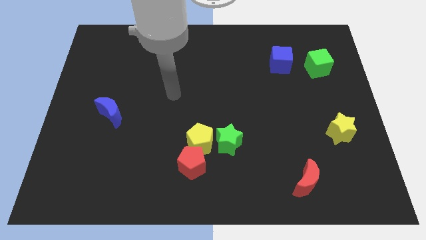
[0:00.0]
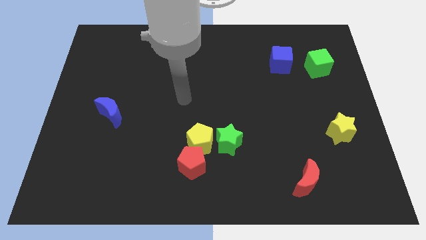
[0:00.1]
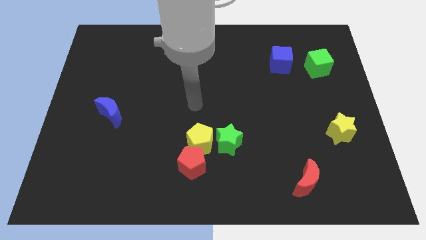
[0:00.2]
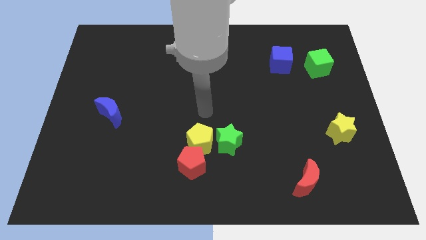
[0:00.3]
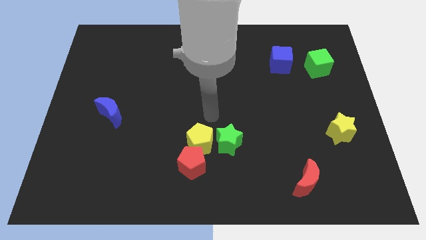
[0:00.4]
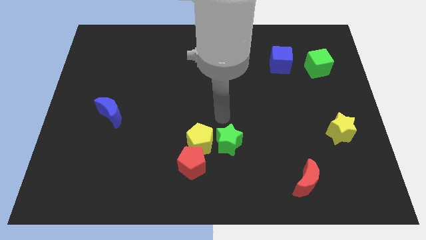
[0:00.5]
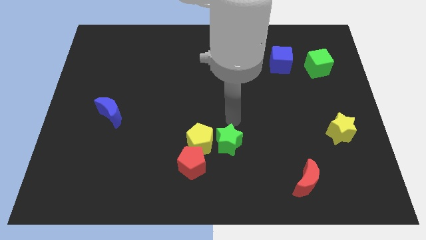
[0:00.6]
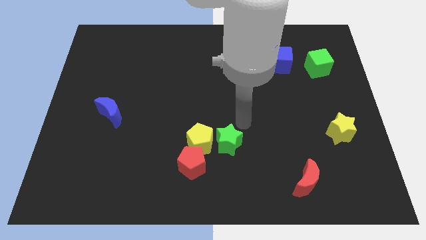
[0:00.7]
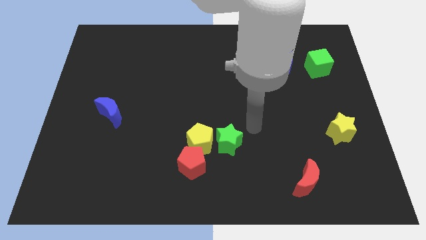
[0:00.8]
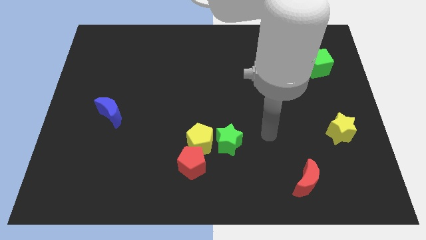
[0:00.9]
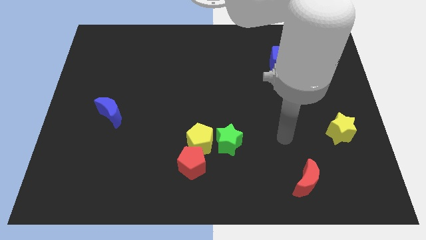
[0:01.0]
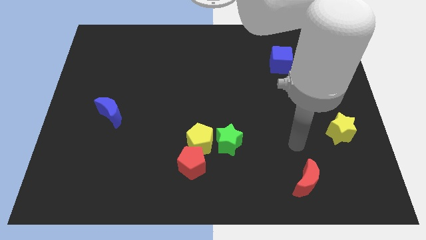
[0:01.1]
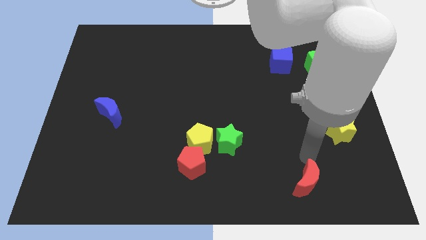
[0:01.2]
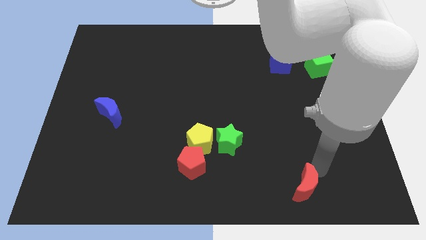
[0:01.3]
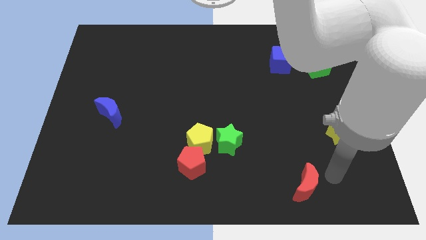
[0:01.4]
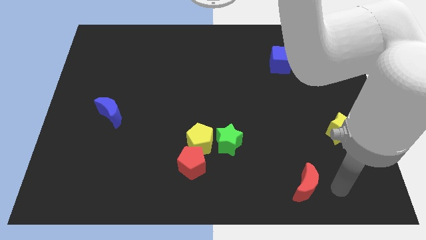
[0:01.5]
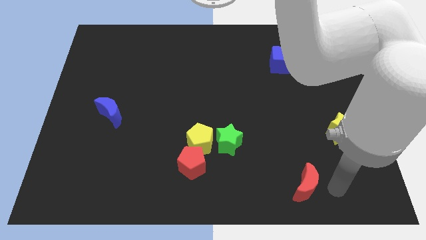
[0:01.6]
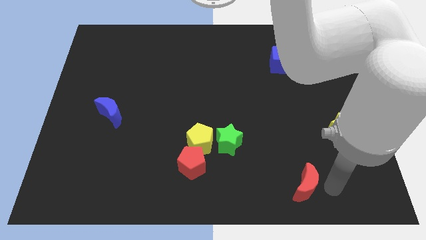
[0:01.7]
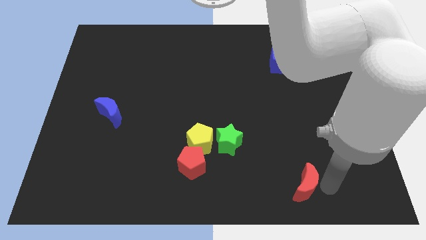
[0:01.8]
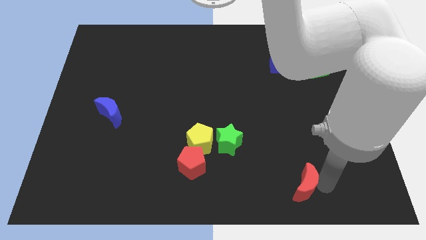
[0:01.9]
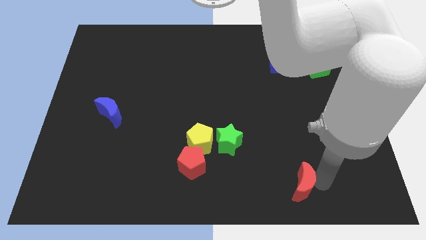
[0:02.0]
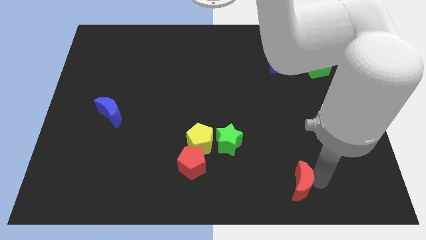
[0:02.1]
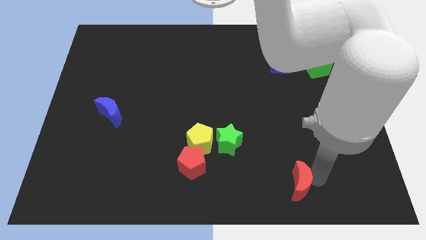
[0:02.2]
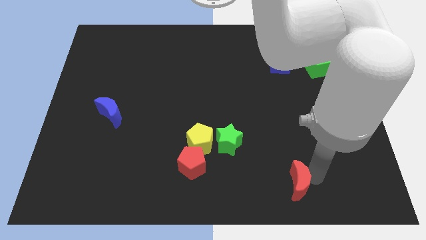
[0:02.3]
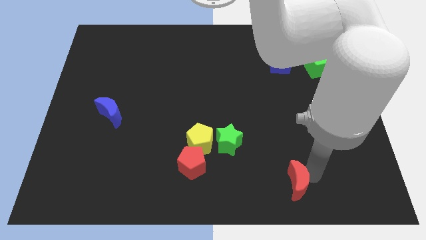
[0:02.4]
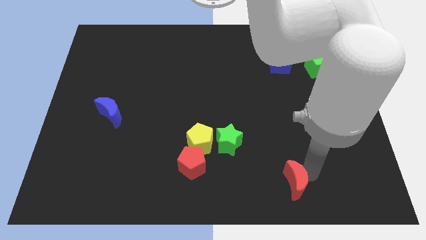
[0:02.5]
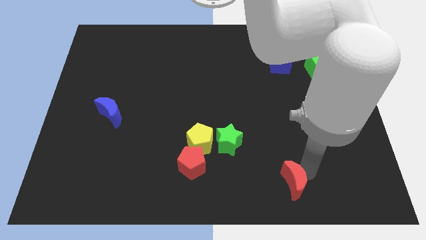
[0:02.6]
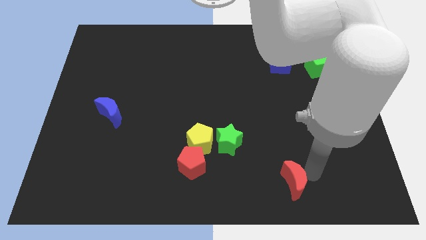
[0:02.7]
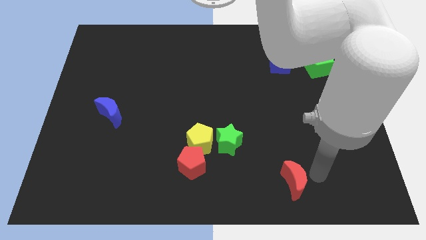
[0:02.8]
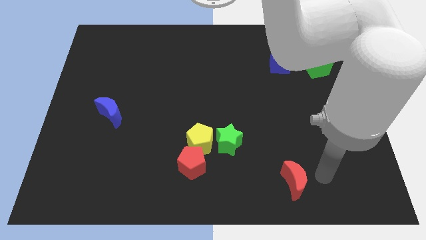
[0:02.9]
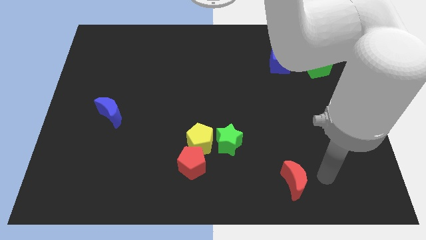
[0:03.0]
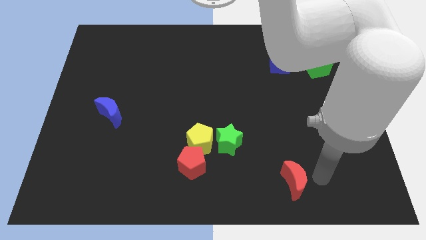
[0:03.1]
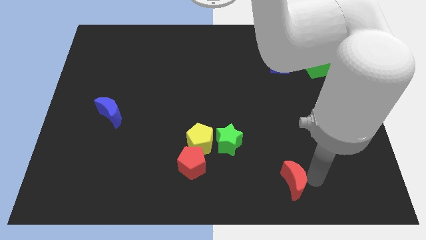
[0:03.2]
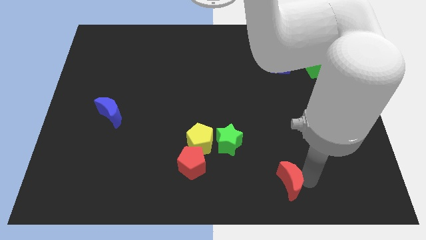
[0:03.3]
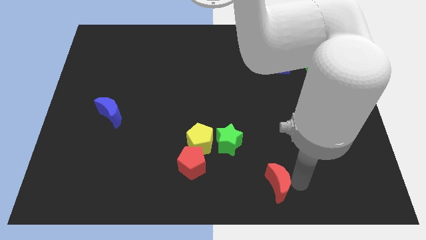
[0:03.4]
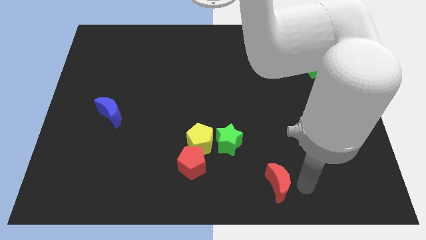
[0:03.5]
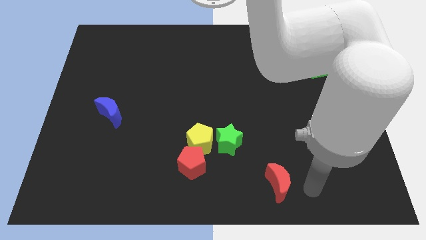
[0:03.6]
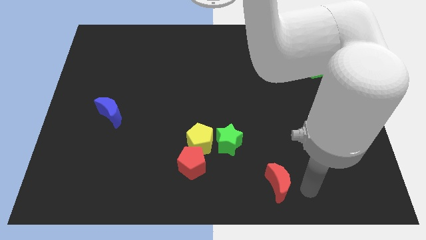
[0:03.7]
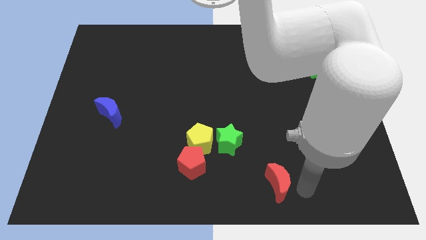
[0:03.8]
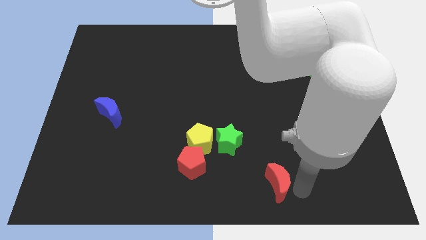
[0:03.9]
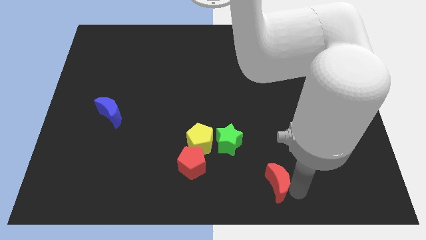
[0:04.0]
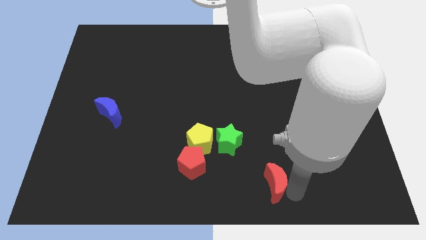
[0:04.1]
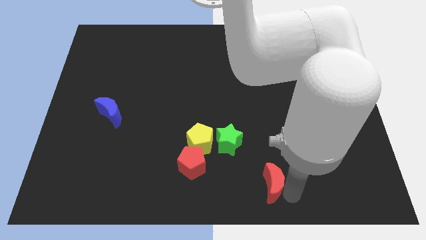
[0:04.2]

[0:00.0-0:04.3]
move the red moon somewhat left

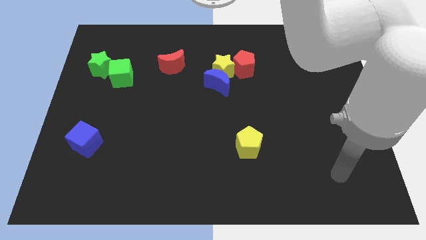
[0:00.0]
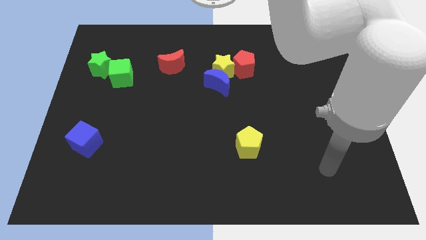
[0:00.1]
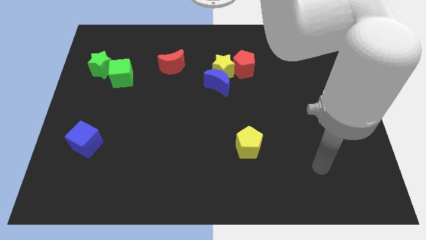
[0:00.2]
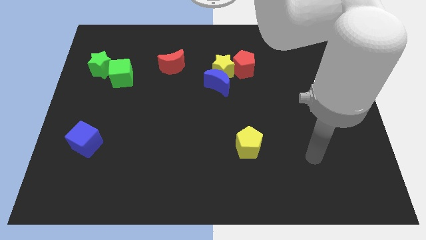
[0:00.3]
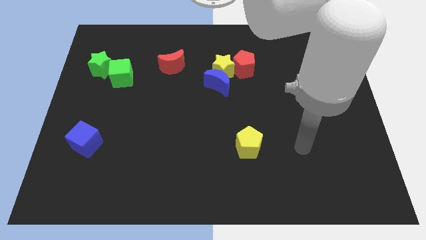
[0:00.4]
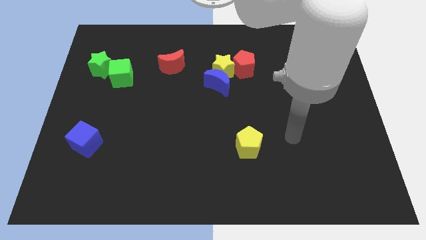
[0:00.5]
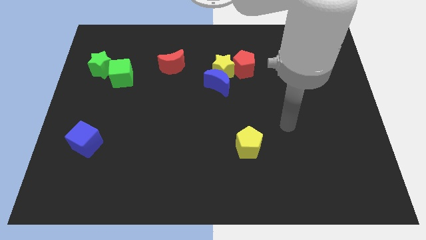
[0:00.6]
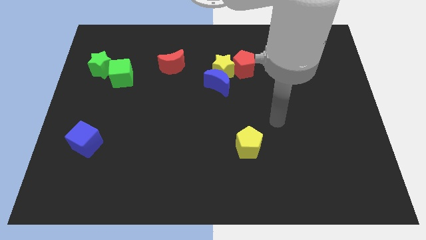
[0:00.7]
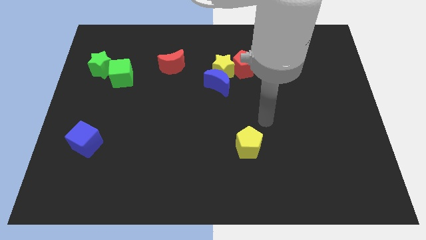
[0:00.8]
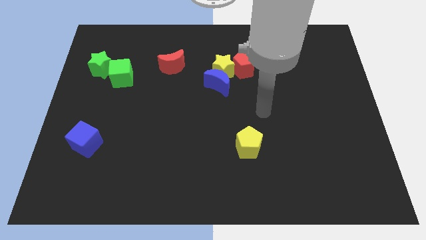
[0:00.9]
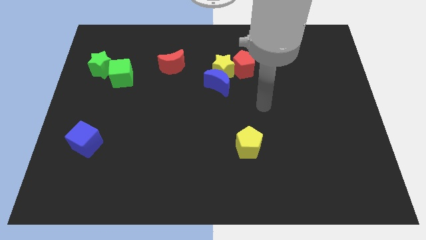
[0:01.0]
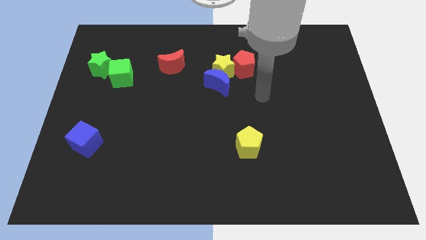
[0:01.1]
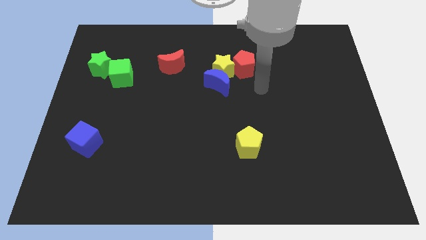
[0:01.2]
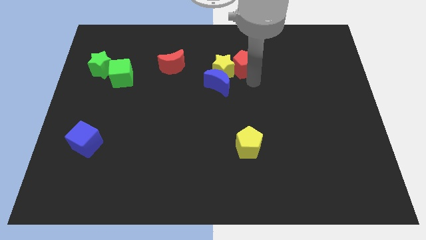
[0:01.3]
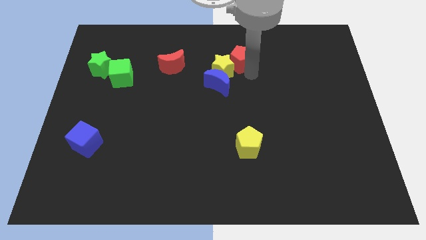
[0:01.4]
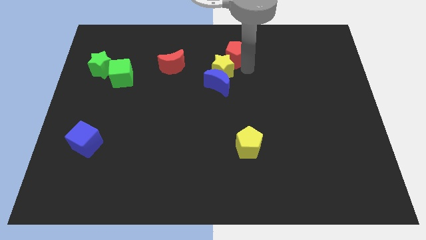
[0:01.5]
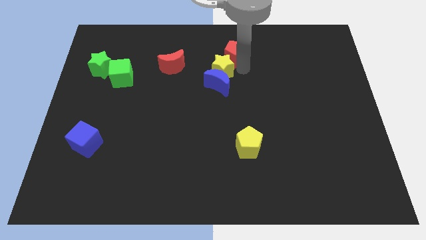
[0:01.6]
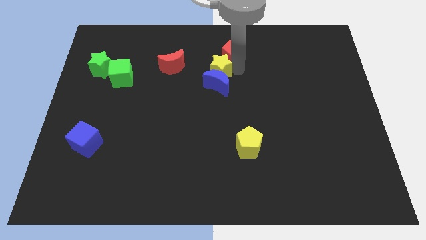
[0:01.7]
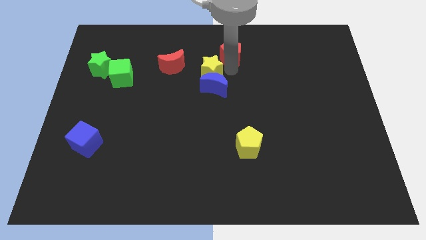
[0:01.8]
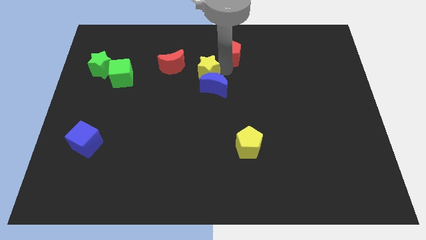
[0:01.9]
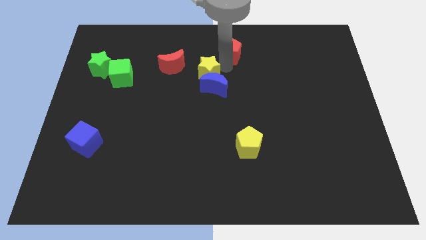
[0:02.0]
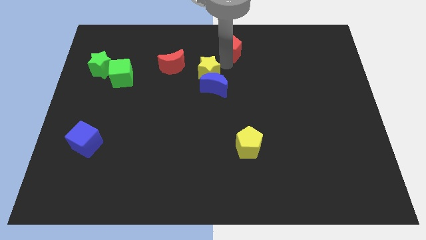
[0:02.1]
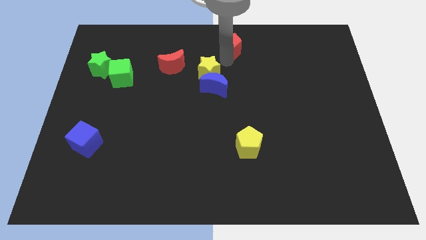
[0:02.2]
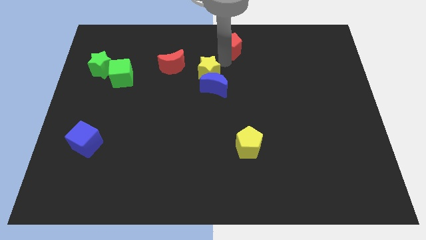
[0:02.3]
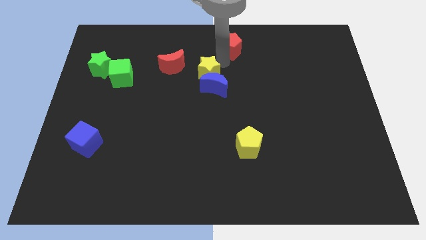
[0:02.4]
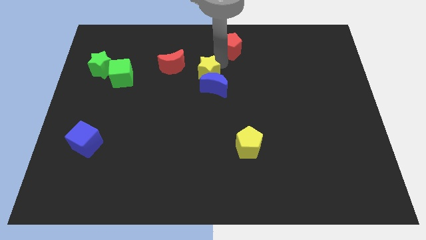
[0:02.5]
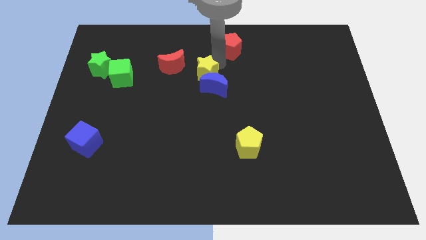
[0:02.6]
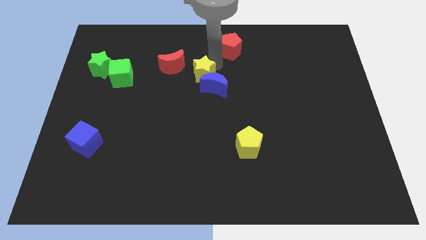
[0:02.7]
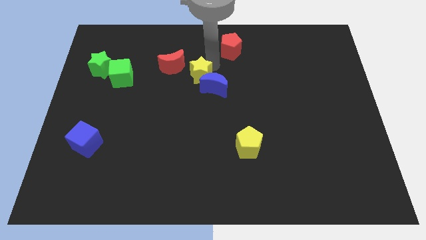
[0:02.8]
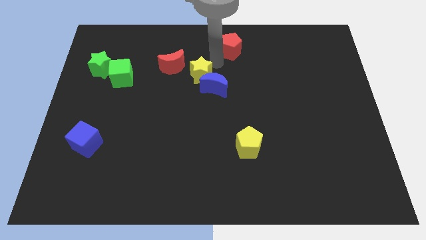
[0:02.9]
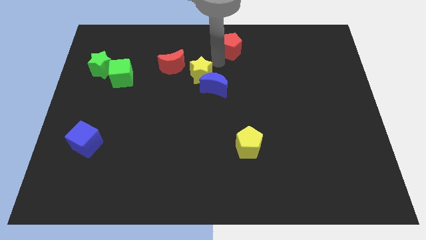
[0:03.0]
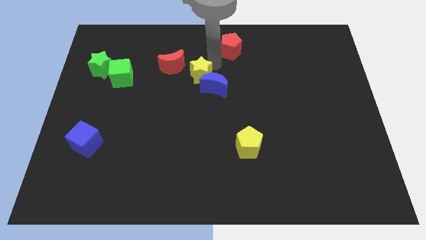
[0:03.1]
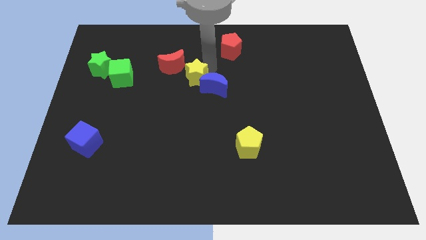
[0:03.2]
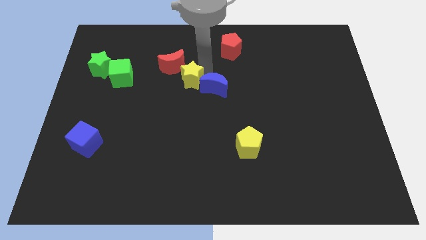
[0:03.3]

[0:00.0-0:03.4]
push the yellow star slightly downwards and to the left

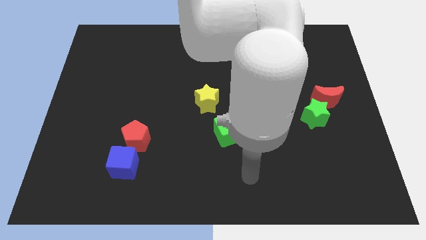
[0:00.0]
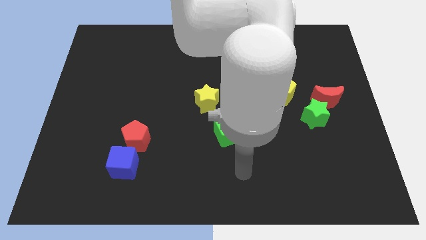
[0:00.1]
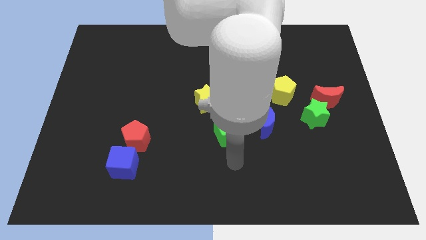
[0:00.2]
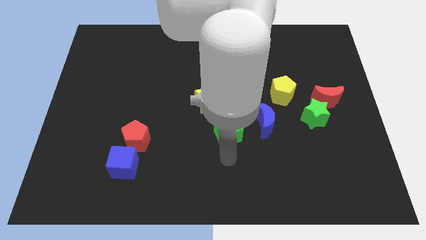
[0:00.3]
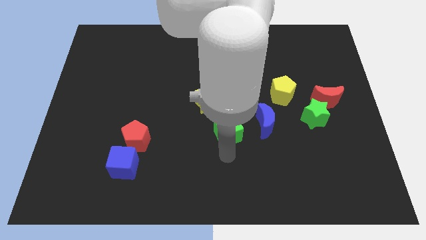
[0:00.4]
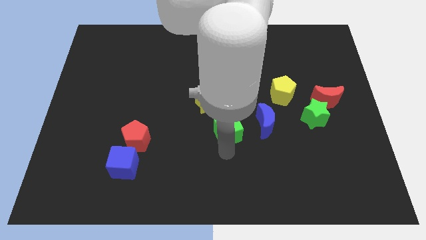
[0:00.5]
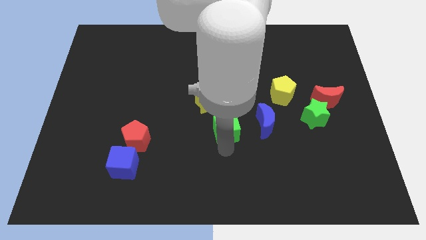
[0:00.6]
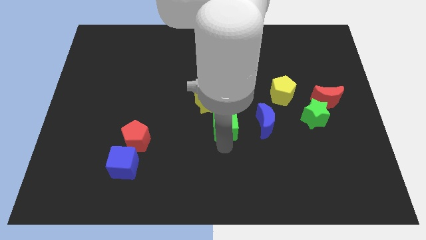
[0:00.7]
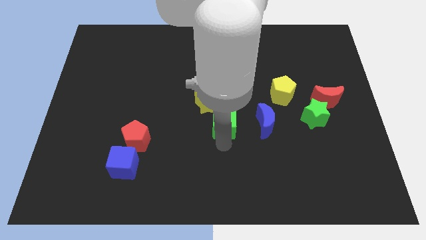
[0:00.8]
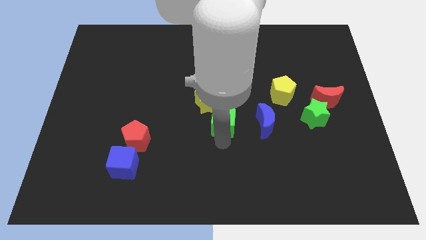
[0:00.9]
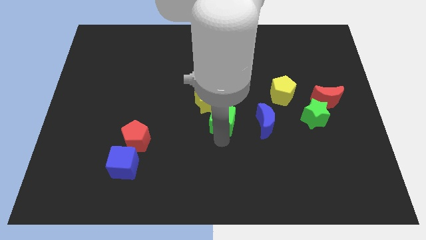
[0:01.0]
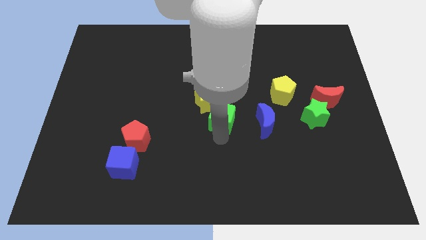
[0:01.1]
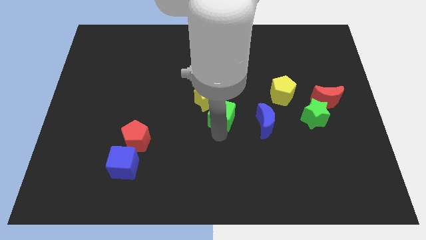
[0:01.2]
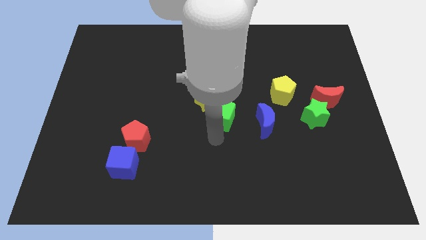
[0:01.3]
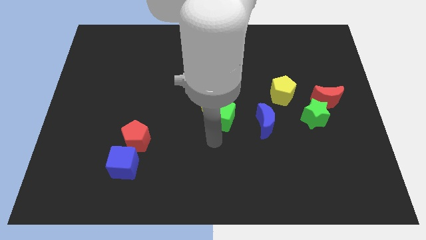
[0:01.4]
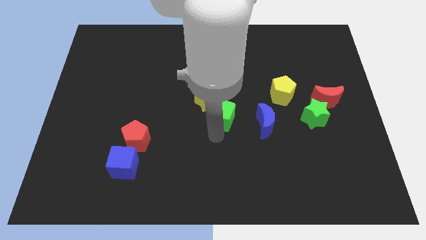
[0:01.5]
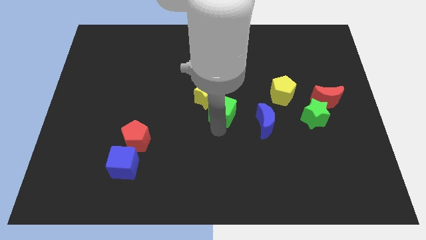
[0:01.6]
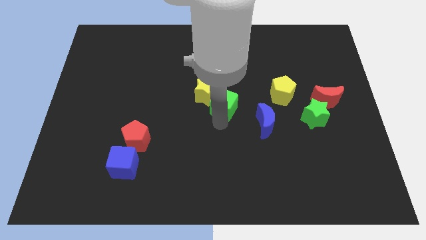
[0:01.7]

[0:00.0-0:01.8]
move the green cube a little bit upwards
